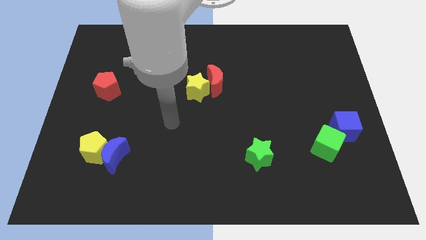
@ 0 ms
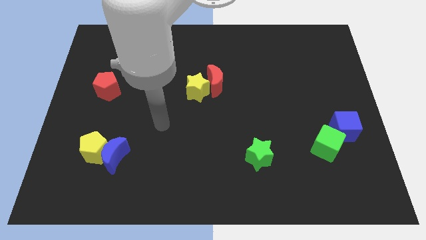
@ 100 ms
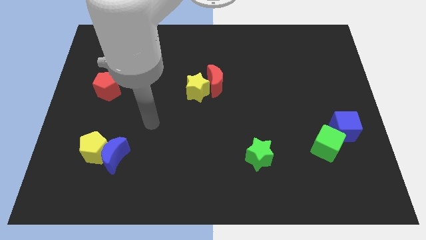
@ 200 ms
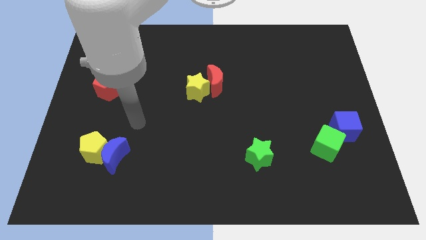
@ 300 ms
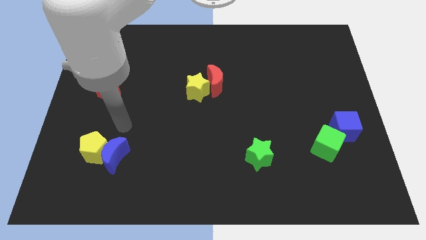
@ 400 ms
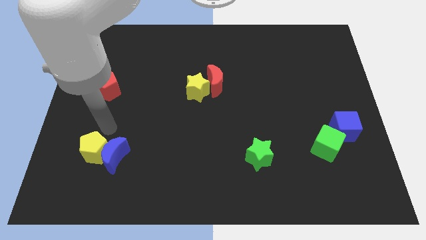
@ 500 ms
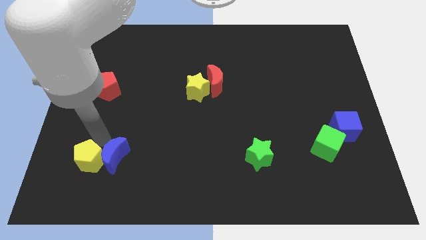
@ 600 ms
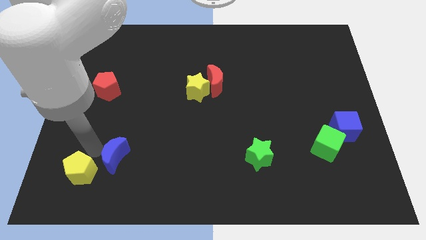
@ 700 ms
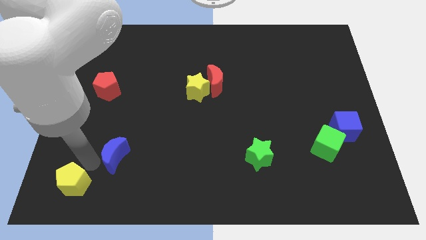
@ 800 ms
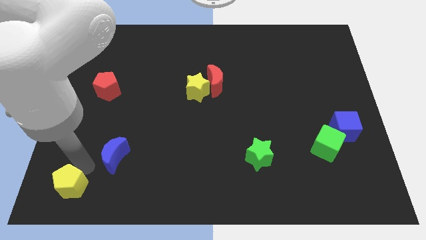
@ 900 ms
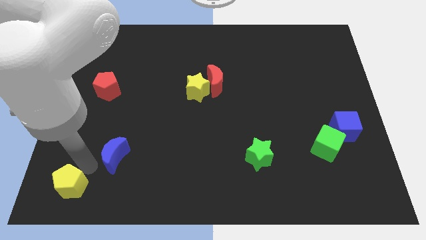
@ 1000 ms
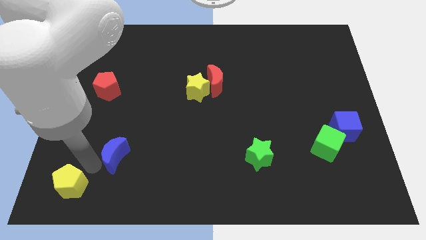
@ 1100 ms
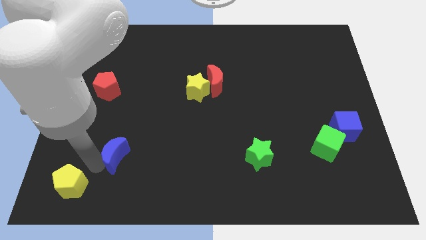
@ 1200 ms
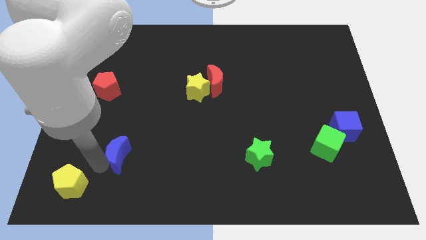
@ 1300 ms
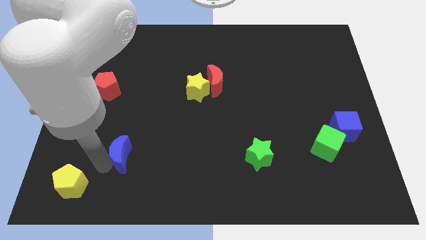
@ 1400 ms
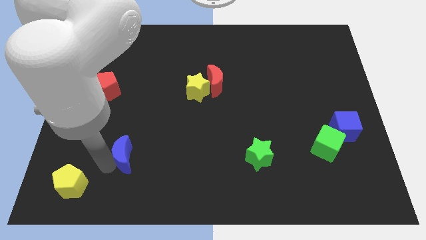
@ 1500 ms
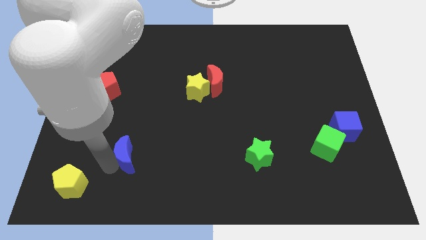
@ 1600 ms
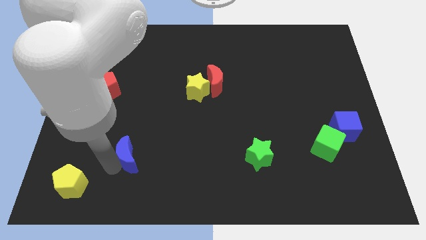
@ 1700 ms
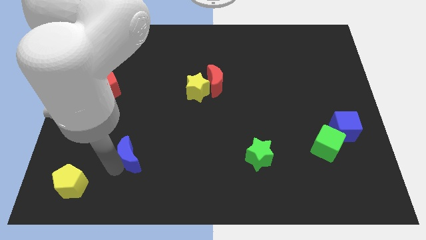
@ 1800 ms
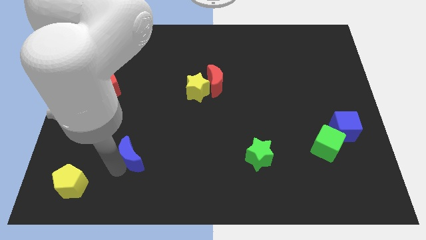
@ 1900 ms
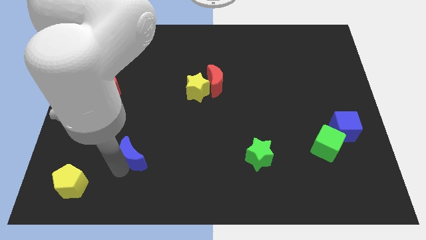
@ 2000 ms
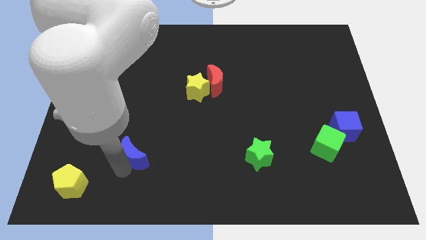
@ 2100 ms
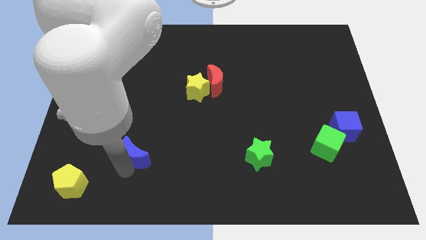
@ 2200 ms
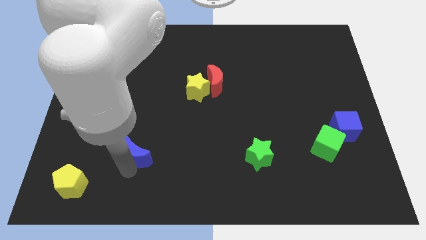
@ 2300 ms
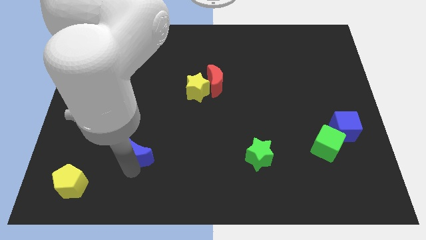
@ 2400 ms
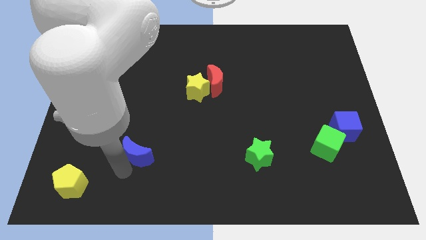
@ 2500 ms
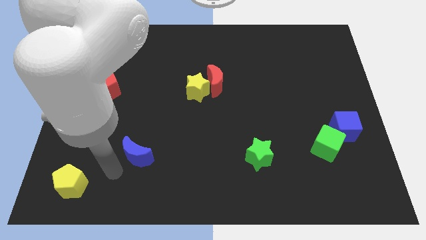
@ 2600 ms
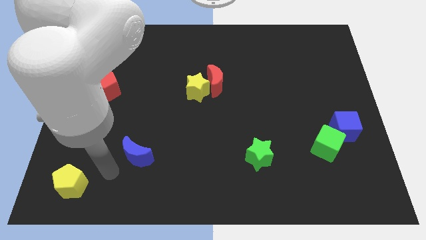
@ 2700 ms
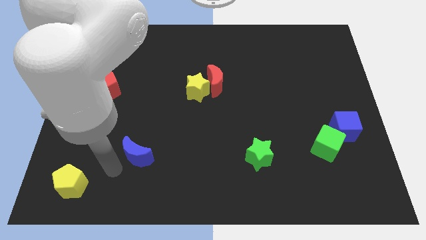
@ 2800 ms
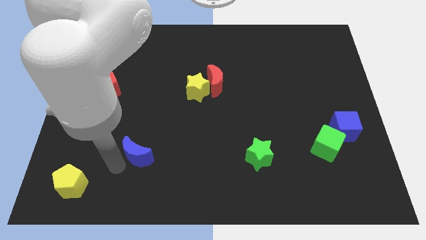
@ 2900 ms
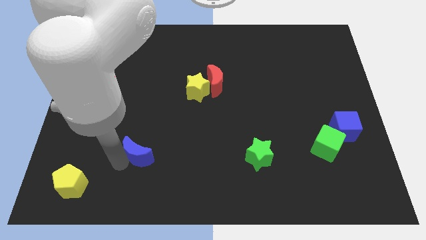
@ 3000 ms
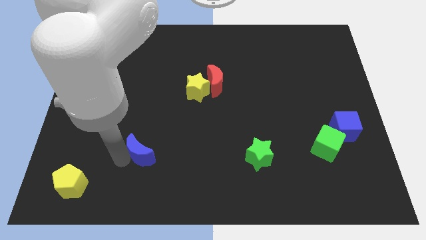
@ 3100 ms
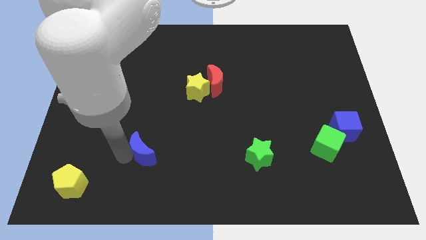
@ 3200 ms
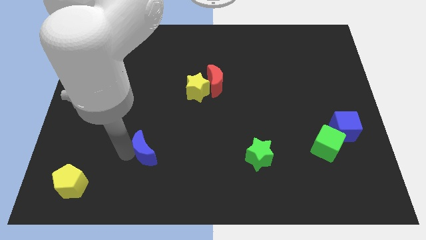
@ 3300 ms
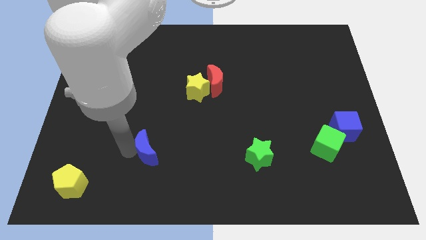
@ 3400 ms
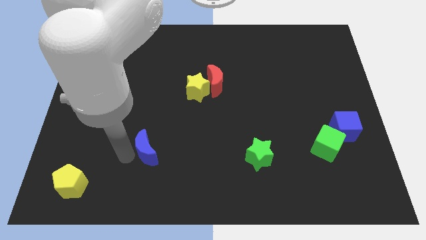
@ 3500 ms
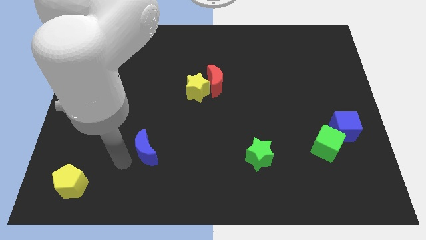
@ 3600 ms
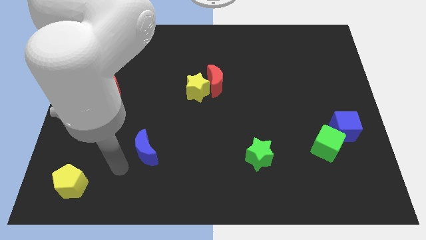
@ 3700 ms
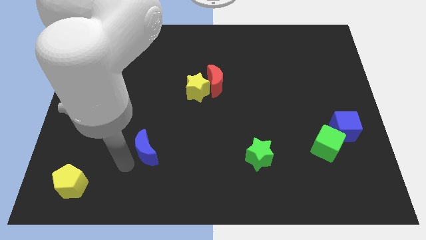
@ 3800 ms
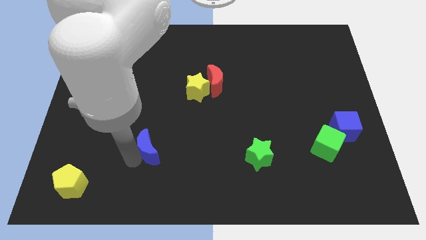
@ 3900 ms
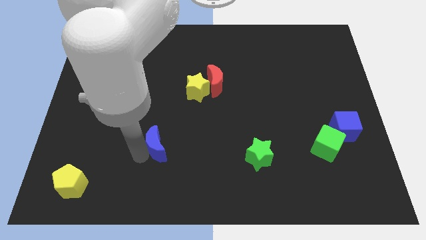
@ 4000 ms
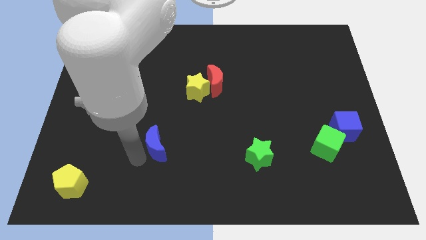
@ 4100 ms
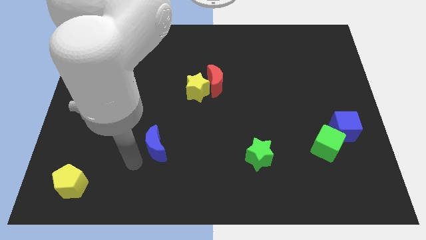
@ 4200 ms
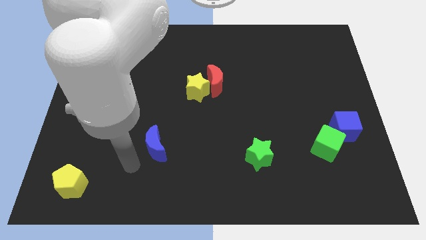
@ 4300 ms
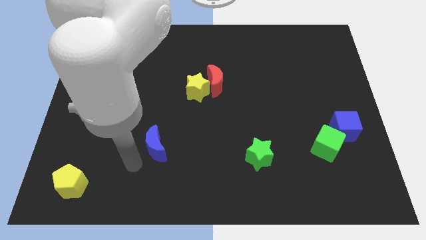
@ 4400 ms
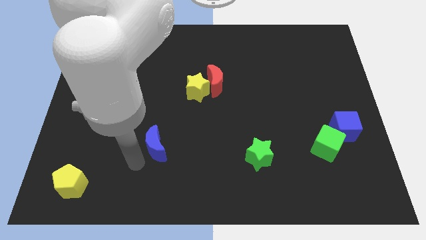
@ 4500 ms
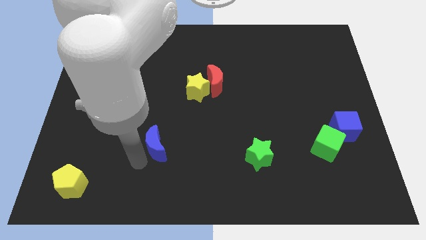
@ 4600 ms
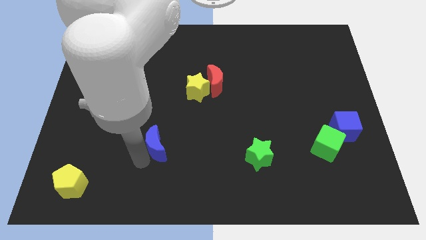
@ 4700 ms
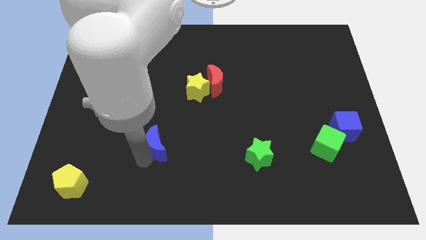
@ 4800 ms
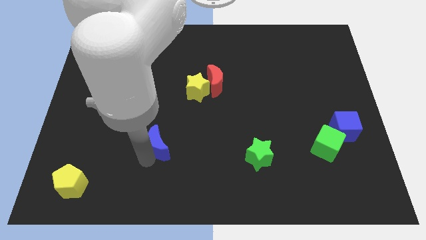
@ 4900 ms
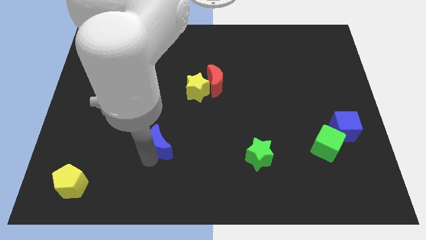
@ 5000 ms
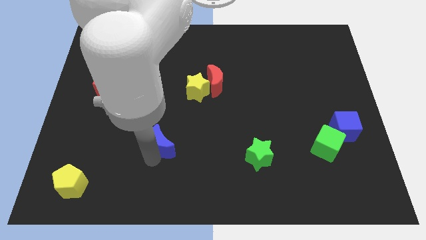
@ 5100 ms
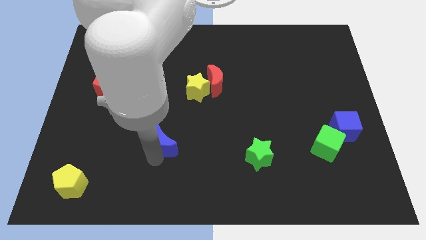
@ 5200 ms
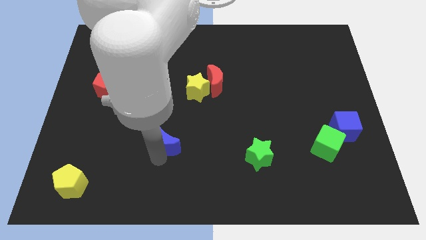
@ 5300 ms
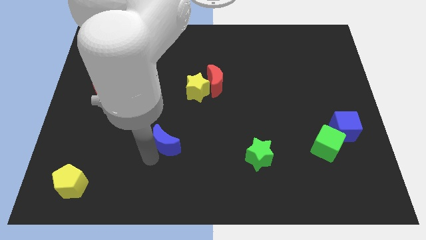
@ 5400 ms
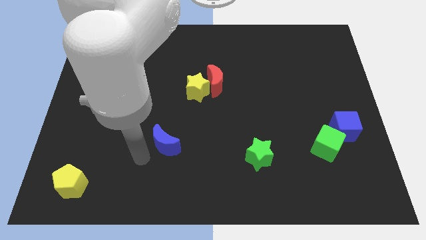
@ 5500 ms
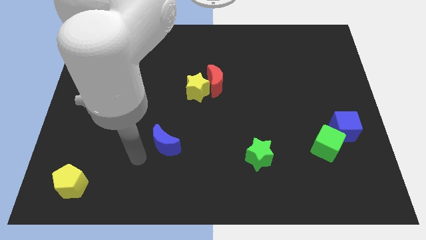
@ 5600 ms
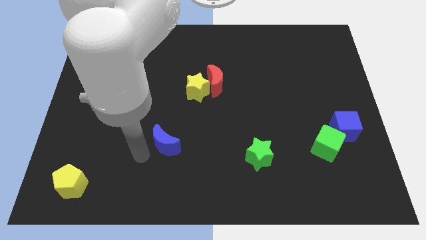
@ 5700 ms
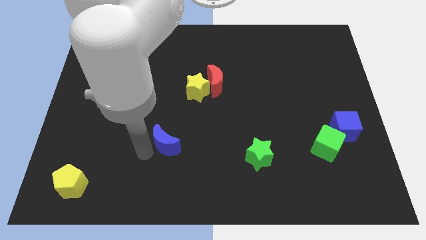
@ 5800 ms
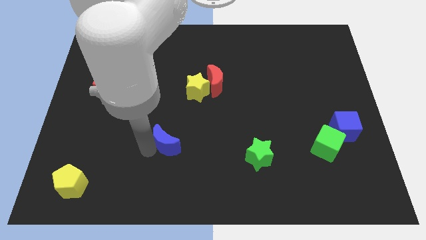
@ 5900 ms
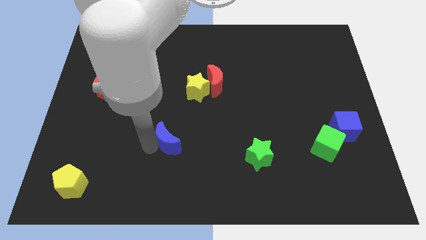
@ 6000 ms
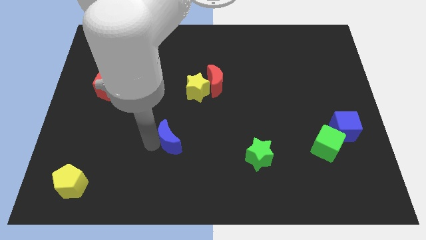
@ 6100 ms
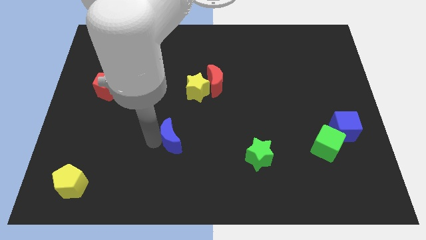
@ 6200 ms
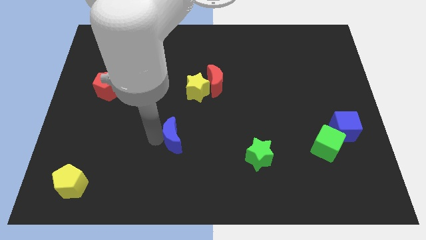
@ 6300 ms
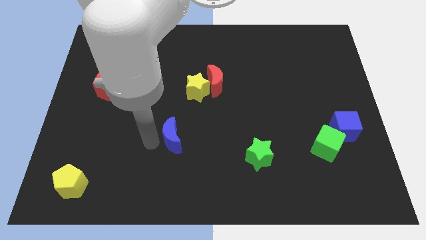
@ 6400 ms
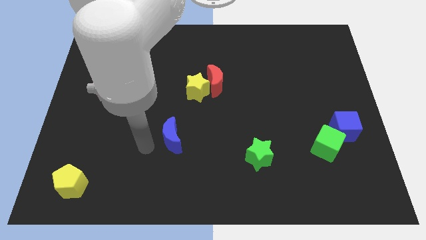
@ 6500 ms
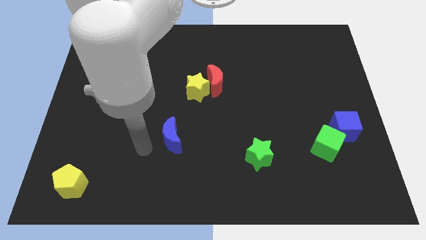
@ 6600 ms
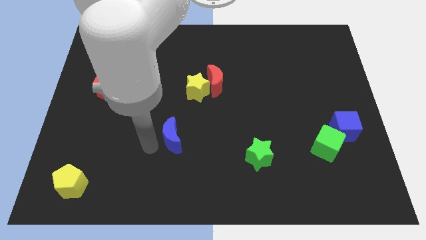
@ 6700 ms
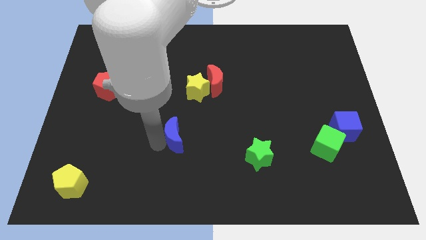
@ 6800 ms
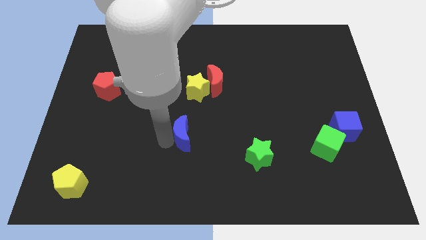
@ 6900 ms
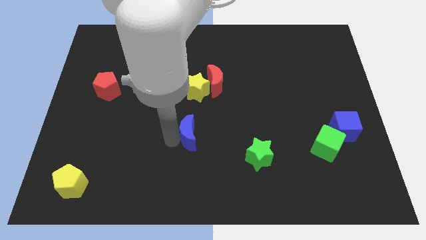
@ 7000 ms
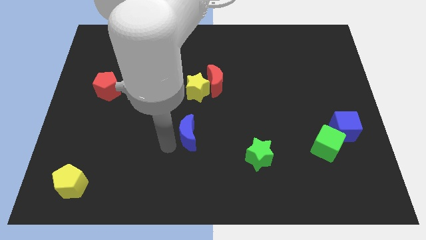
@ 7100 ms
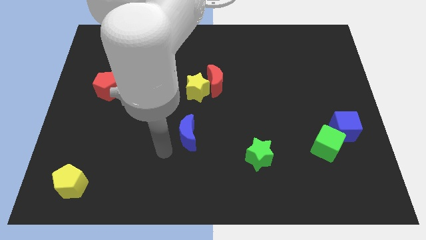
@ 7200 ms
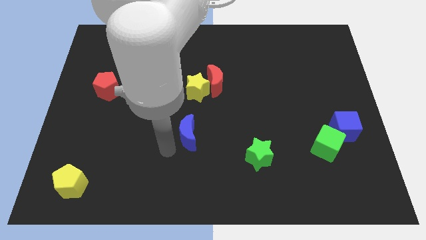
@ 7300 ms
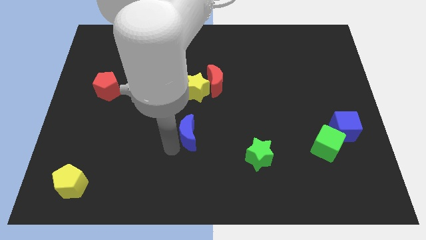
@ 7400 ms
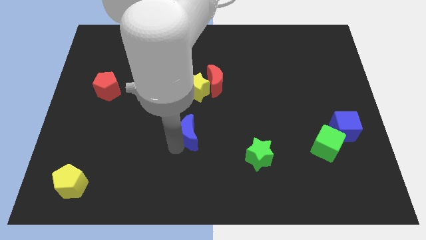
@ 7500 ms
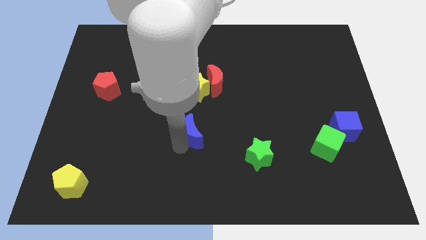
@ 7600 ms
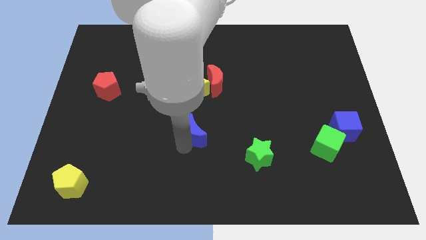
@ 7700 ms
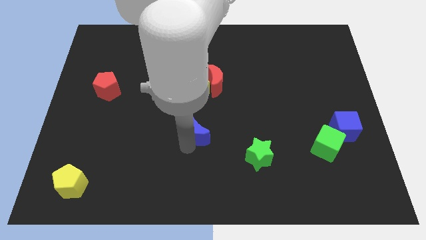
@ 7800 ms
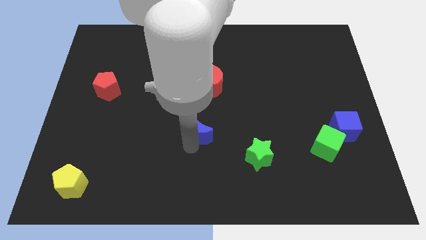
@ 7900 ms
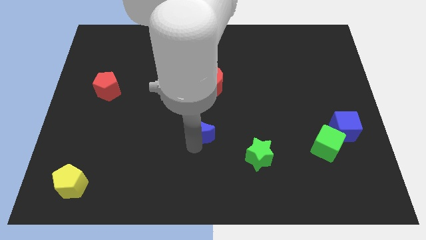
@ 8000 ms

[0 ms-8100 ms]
move the blue moon to the bottom side of the red moon
